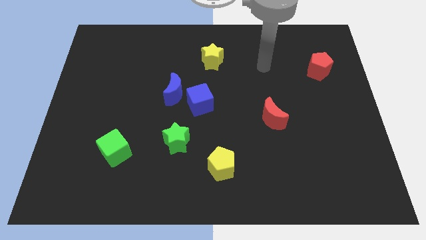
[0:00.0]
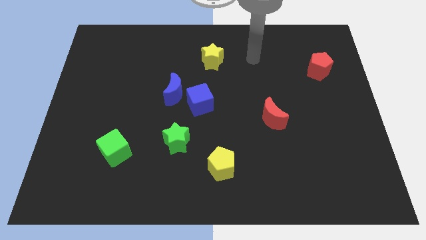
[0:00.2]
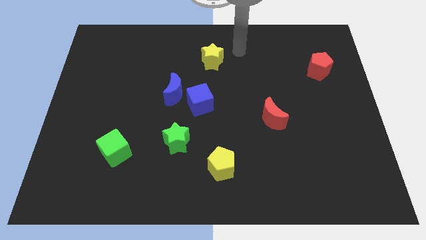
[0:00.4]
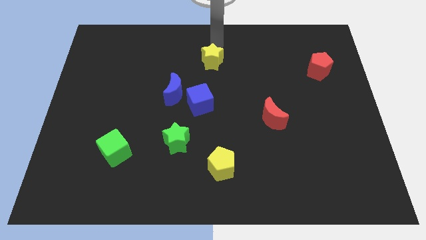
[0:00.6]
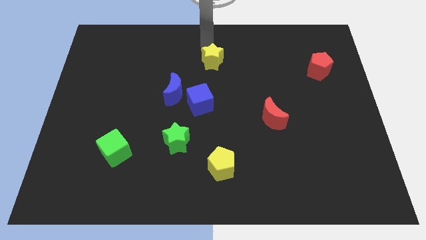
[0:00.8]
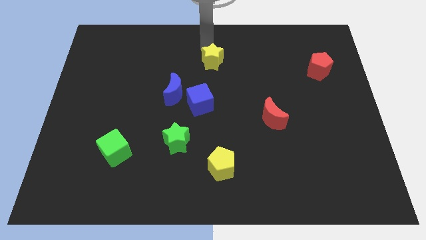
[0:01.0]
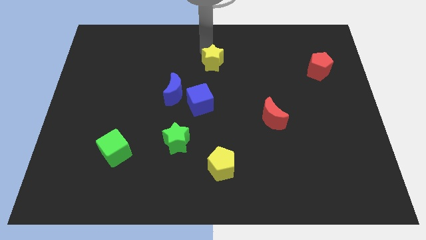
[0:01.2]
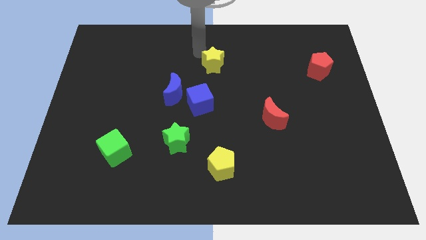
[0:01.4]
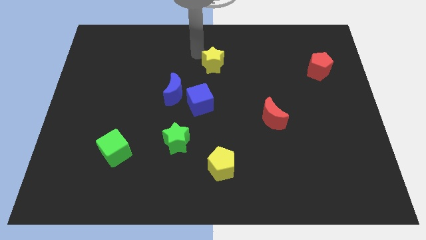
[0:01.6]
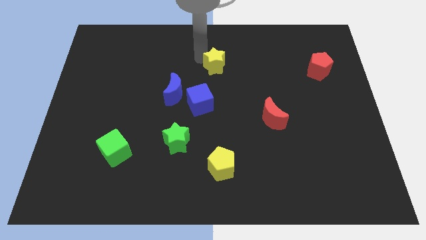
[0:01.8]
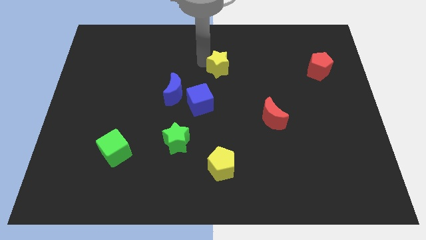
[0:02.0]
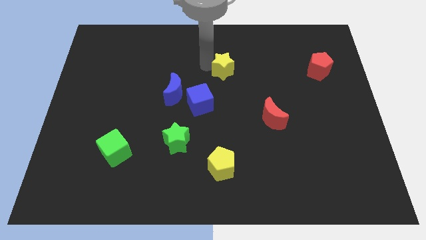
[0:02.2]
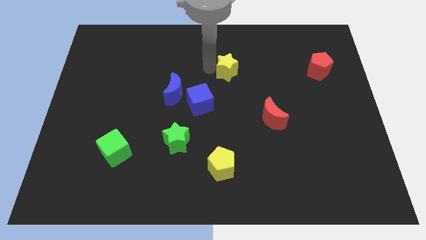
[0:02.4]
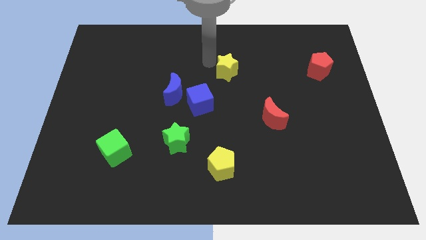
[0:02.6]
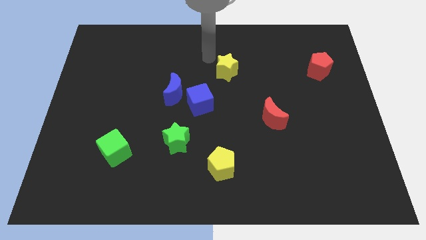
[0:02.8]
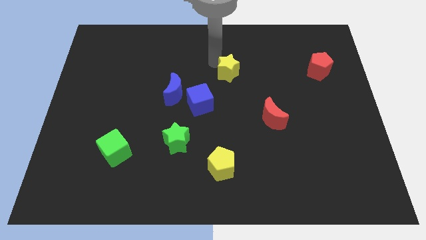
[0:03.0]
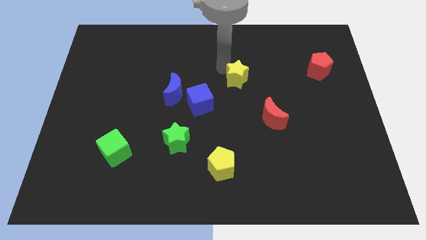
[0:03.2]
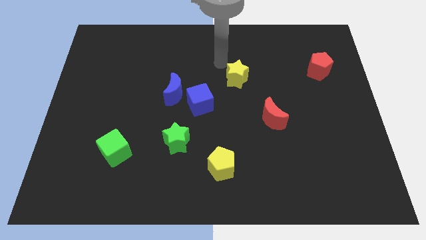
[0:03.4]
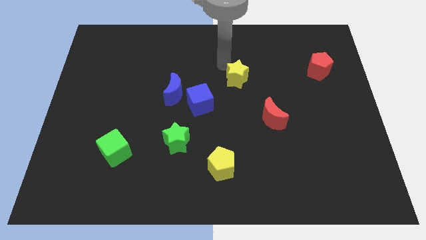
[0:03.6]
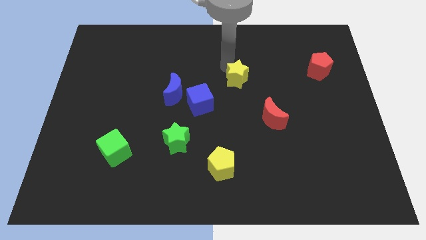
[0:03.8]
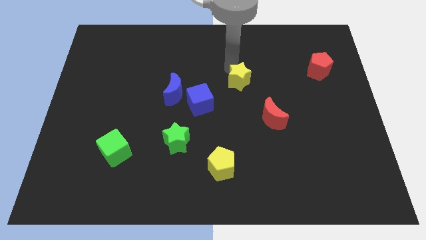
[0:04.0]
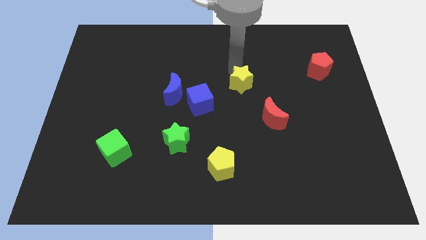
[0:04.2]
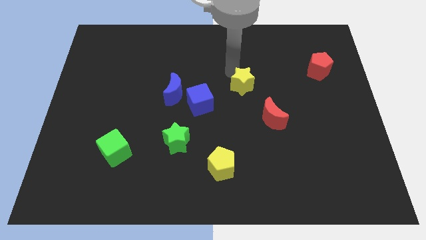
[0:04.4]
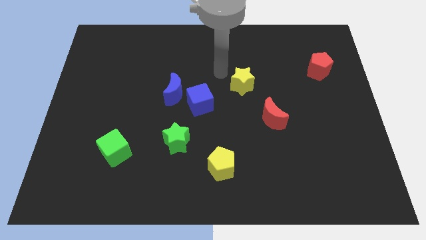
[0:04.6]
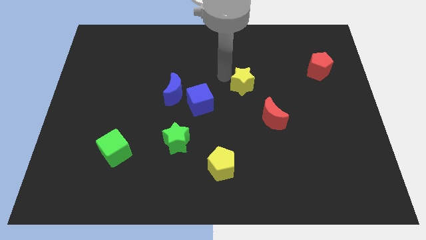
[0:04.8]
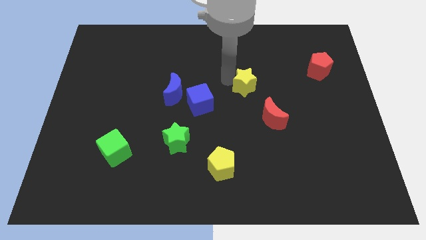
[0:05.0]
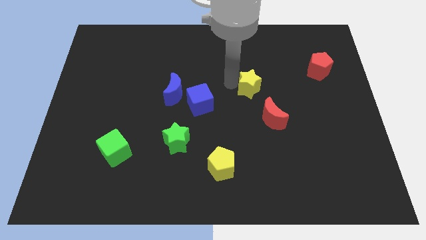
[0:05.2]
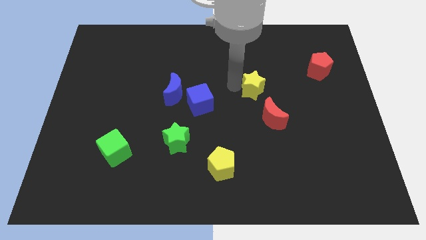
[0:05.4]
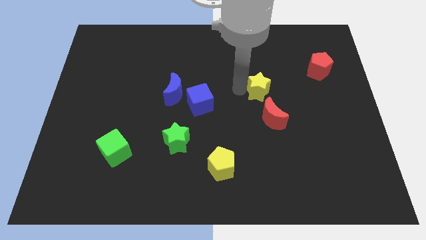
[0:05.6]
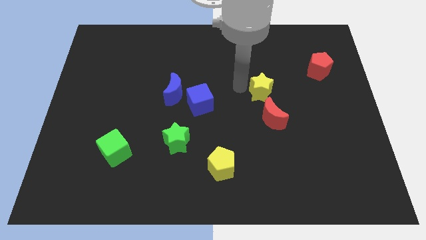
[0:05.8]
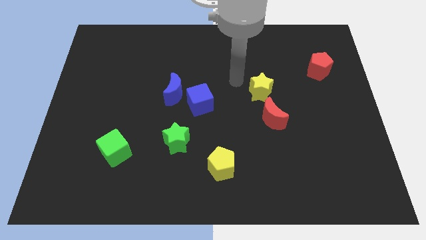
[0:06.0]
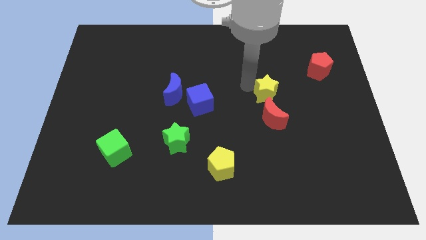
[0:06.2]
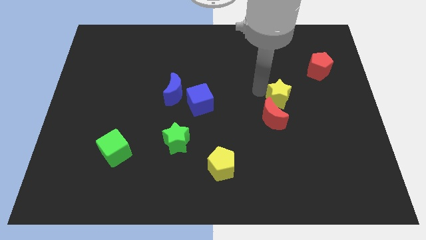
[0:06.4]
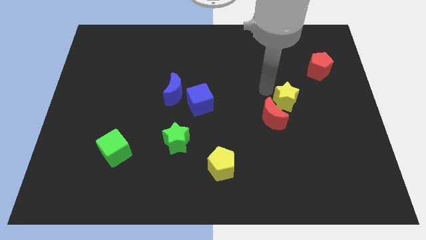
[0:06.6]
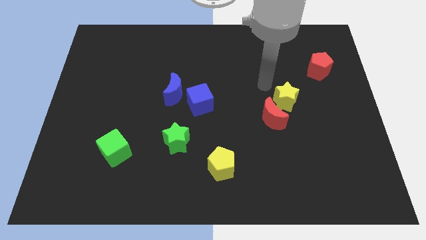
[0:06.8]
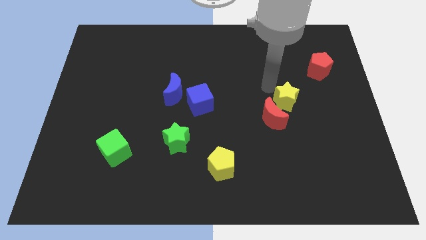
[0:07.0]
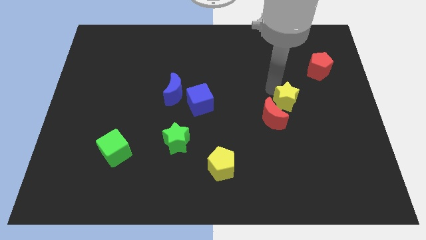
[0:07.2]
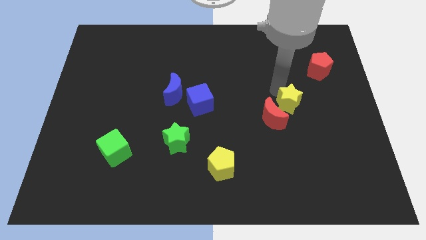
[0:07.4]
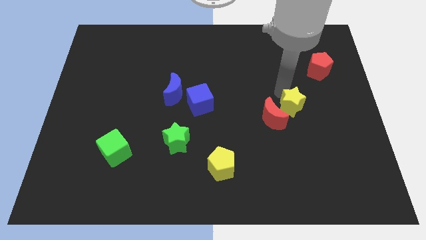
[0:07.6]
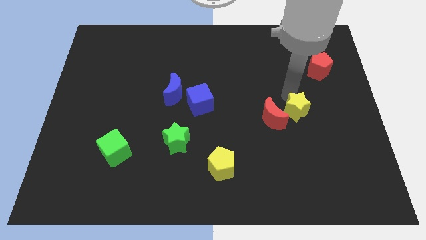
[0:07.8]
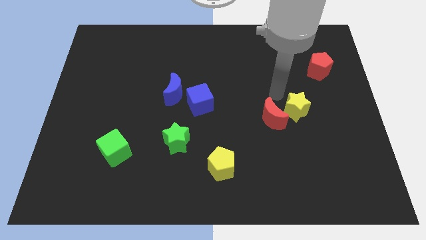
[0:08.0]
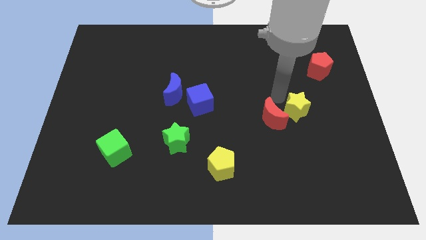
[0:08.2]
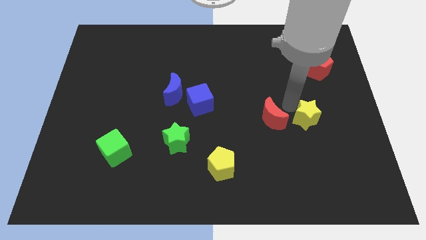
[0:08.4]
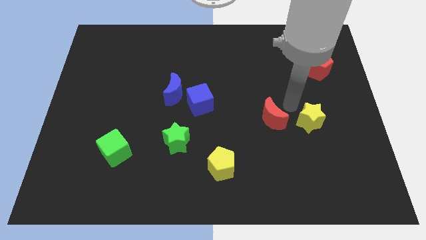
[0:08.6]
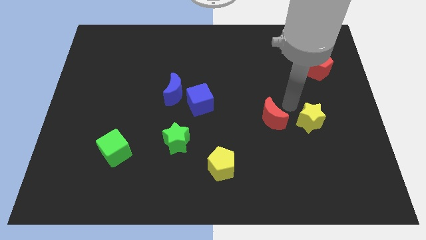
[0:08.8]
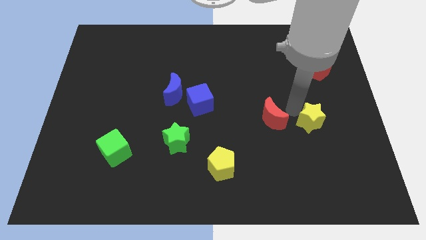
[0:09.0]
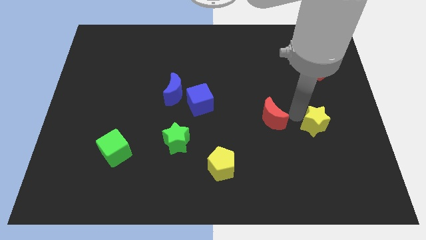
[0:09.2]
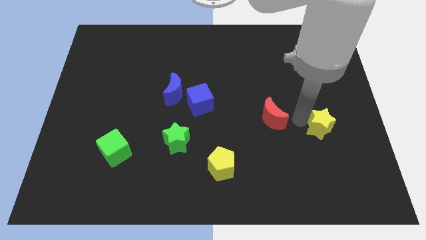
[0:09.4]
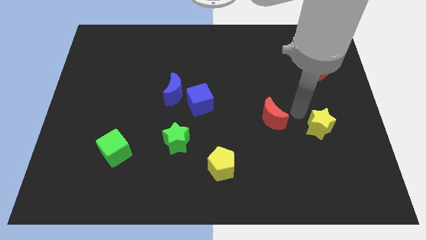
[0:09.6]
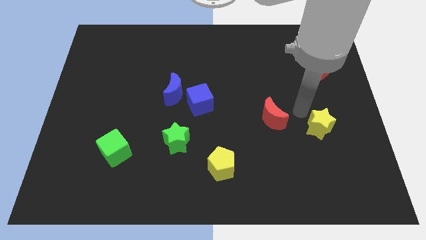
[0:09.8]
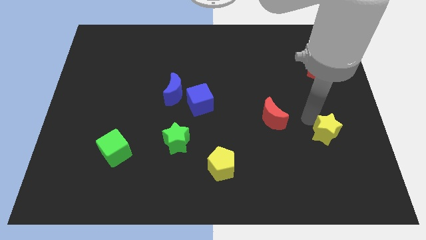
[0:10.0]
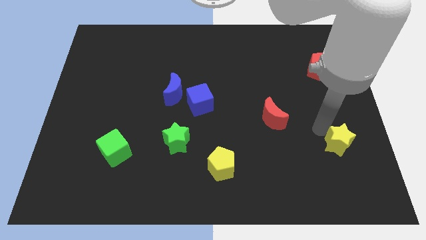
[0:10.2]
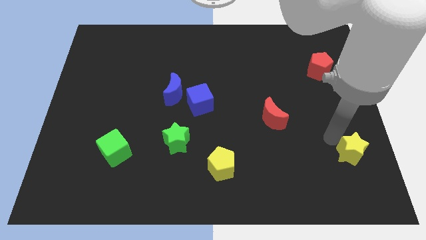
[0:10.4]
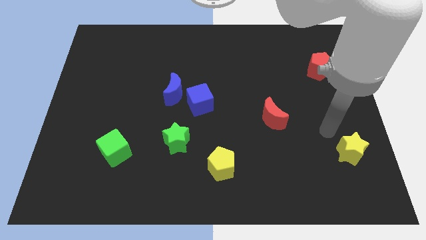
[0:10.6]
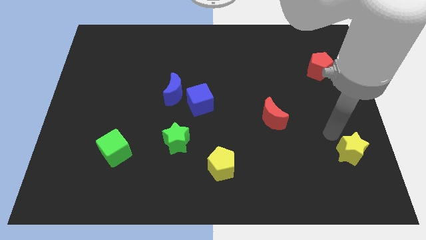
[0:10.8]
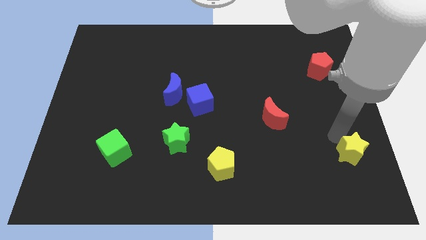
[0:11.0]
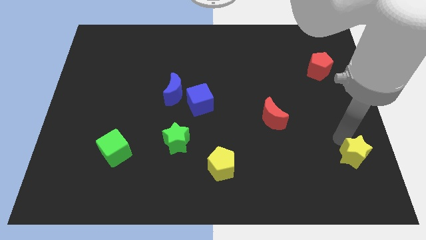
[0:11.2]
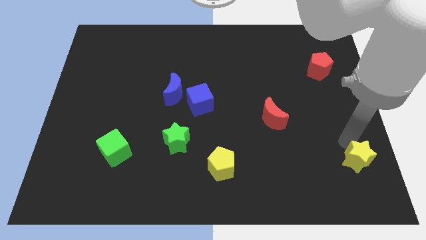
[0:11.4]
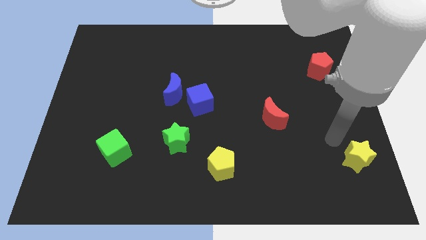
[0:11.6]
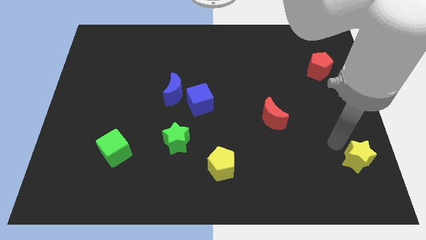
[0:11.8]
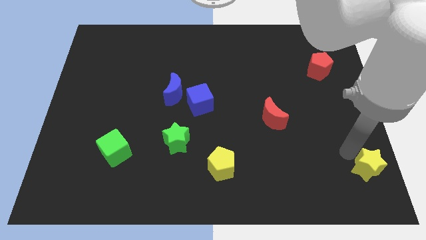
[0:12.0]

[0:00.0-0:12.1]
put the yellow star to the lower right corner

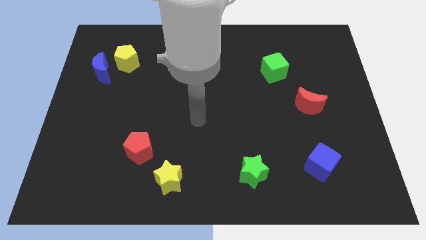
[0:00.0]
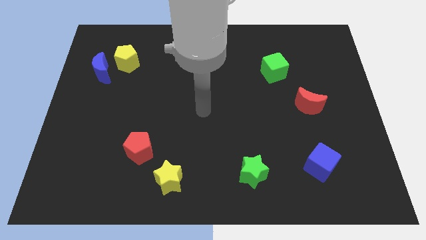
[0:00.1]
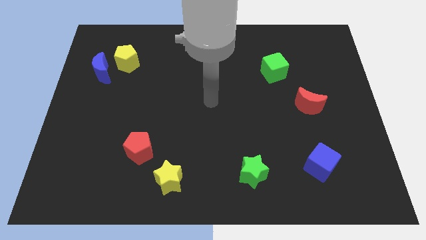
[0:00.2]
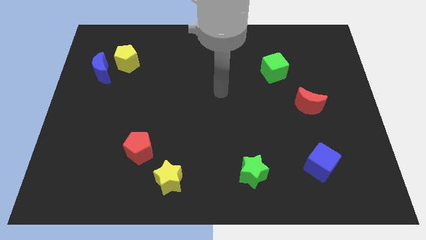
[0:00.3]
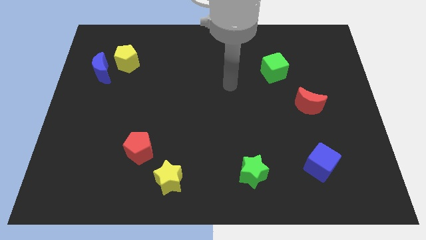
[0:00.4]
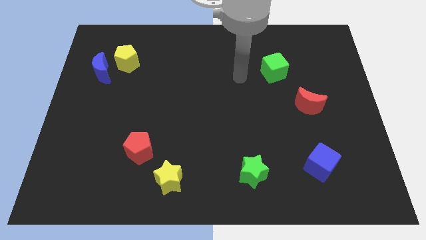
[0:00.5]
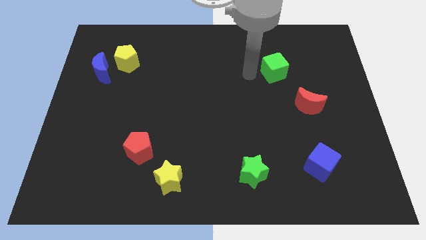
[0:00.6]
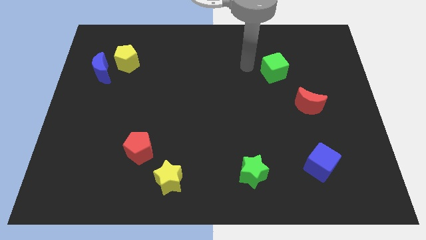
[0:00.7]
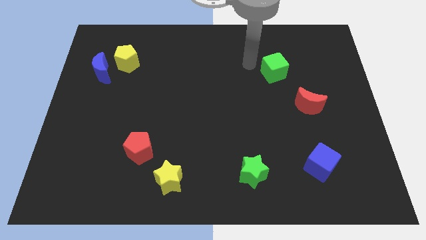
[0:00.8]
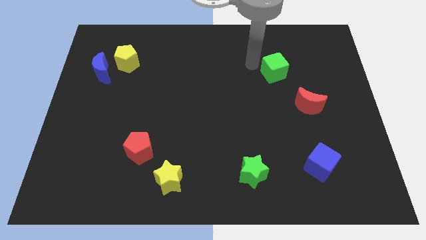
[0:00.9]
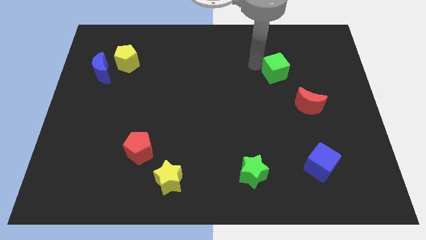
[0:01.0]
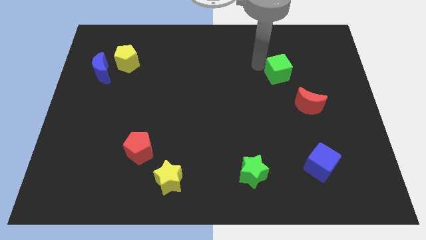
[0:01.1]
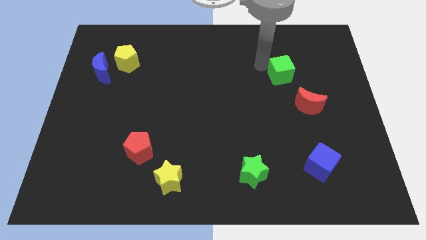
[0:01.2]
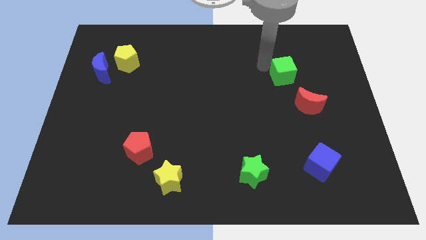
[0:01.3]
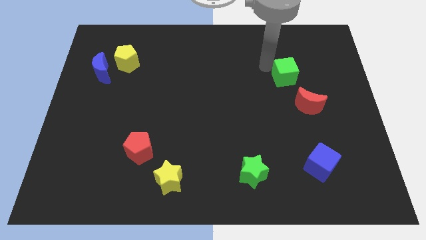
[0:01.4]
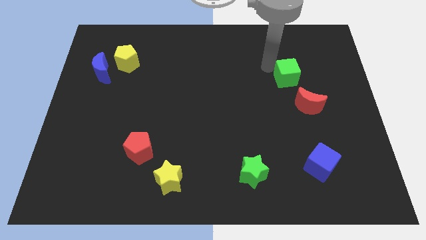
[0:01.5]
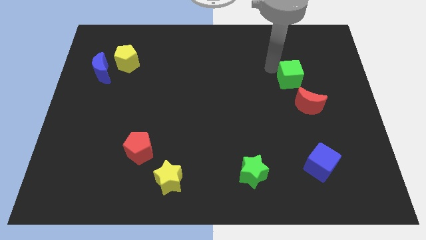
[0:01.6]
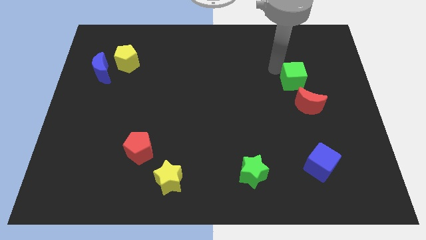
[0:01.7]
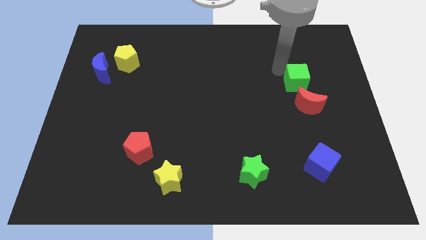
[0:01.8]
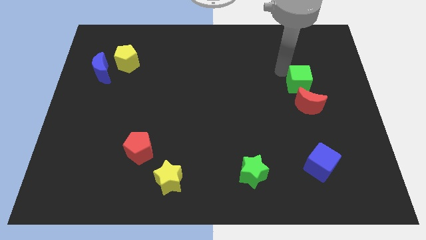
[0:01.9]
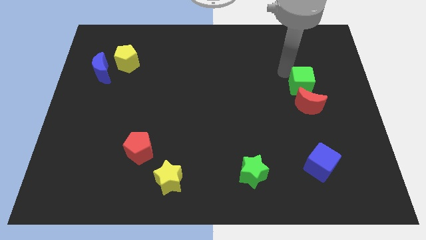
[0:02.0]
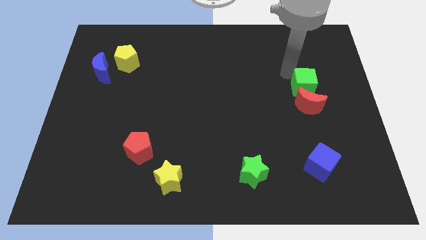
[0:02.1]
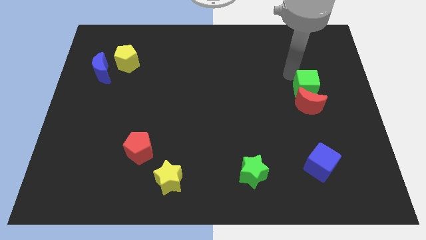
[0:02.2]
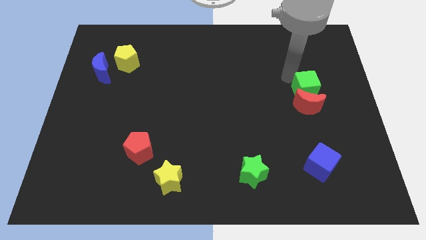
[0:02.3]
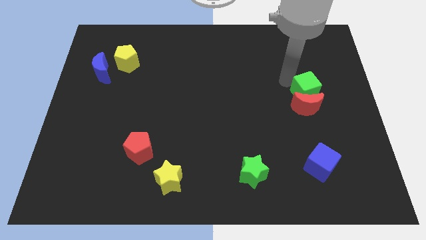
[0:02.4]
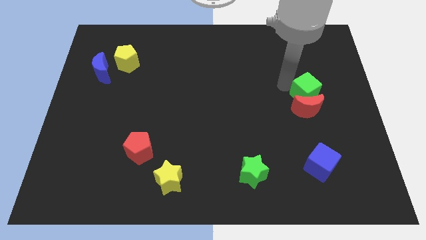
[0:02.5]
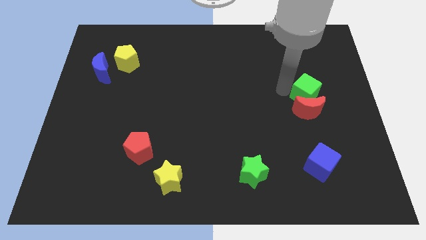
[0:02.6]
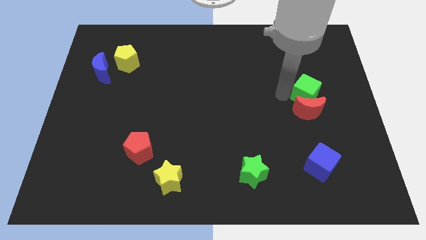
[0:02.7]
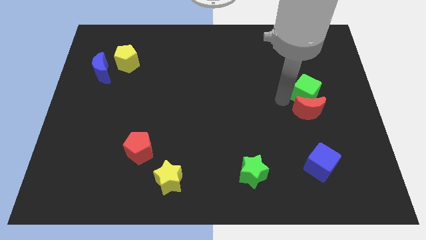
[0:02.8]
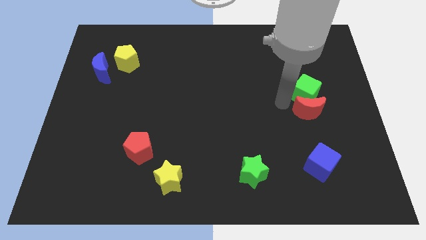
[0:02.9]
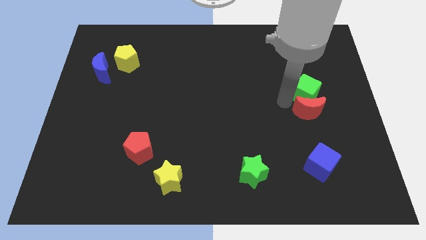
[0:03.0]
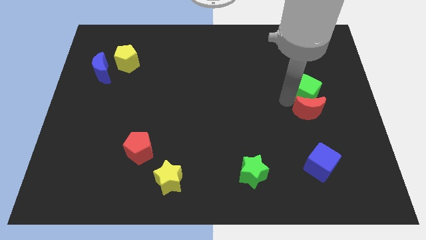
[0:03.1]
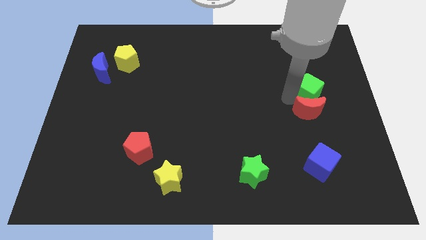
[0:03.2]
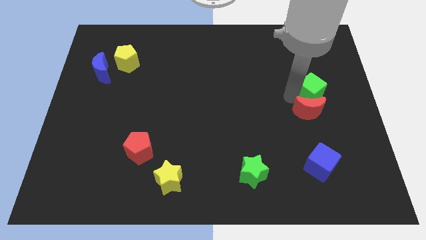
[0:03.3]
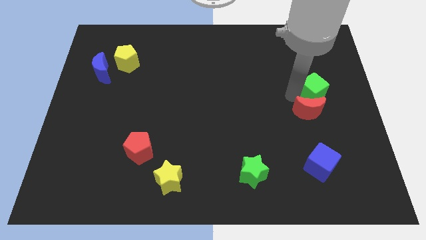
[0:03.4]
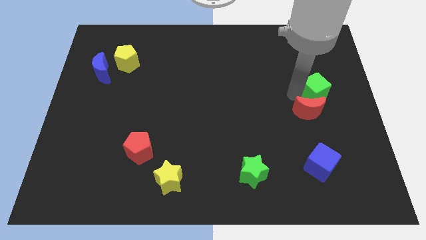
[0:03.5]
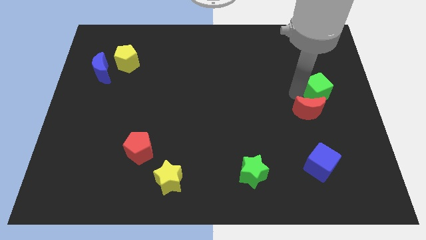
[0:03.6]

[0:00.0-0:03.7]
slide the green cube to the center right
